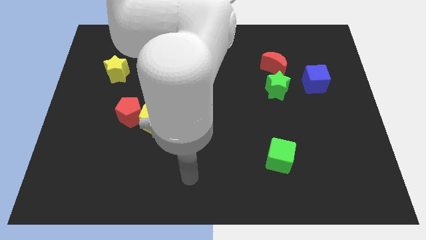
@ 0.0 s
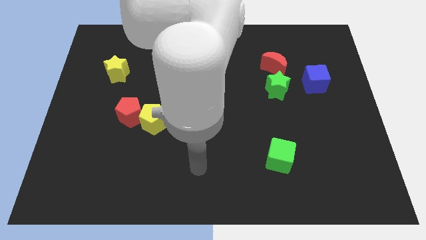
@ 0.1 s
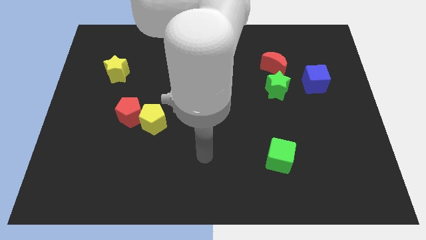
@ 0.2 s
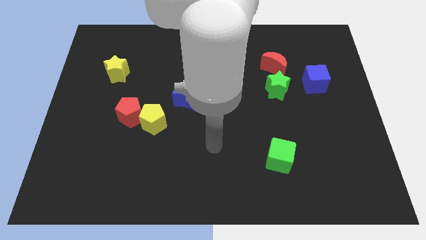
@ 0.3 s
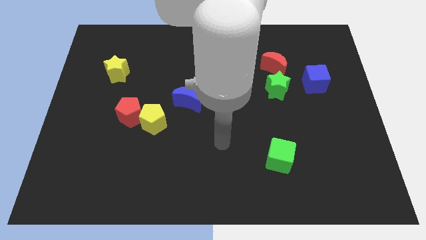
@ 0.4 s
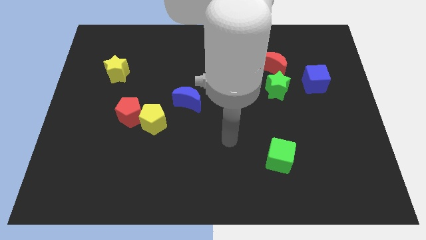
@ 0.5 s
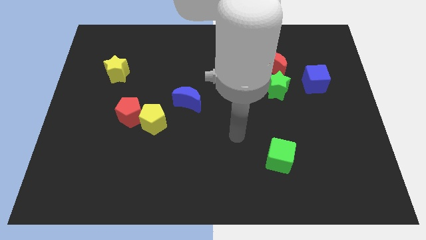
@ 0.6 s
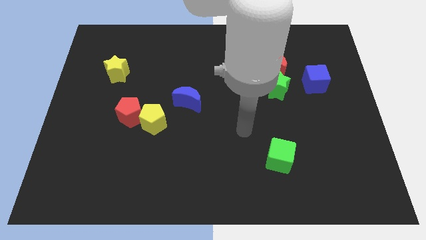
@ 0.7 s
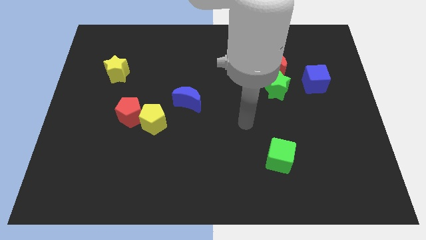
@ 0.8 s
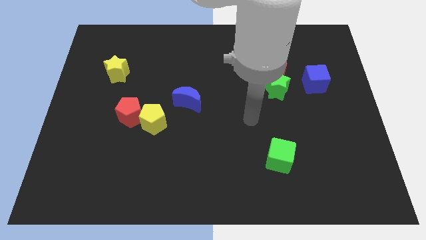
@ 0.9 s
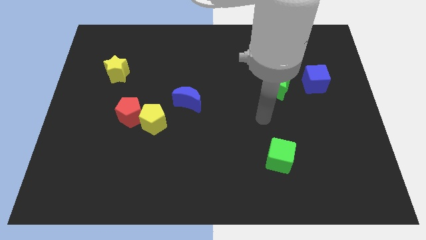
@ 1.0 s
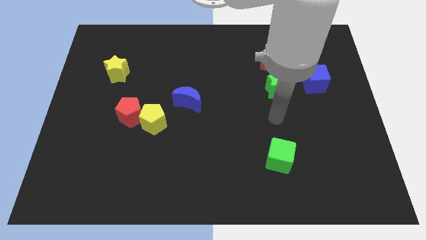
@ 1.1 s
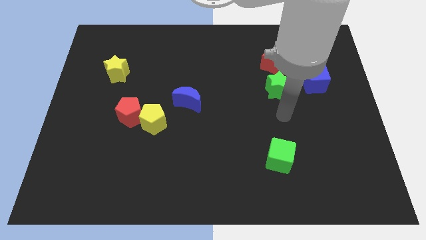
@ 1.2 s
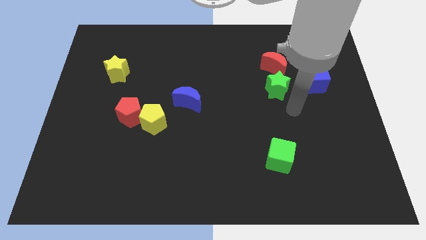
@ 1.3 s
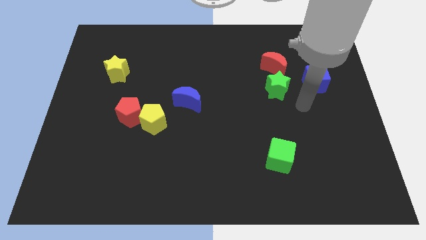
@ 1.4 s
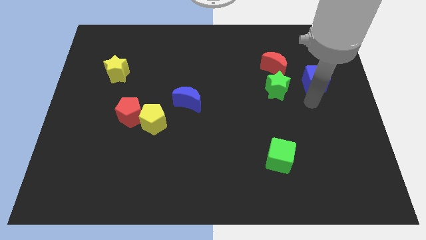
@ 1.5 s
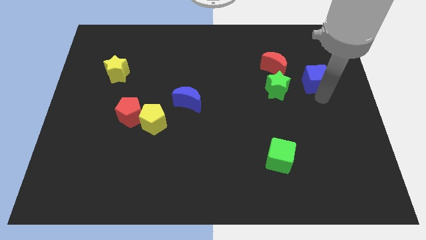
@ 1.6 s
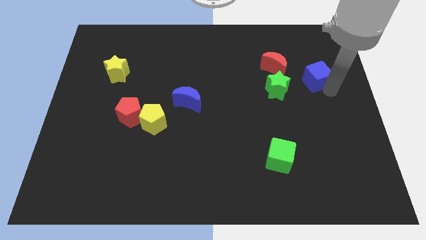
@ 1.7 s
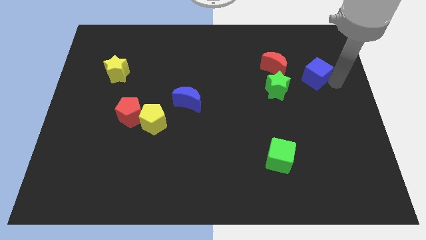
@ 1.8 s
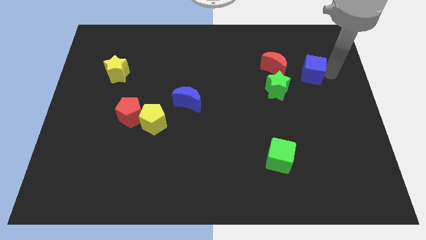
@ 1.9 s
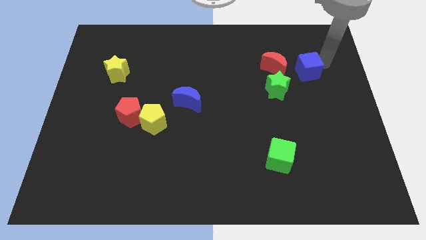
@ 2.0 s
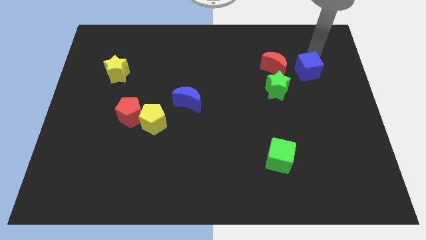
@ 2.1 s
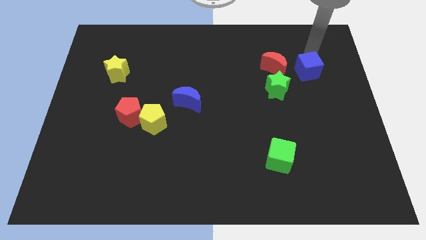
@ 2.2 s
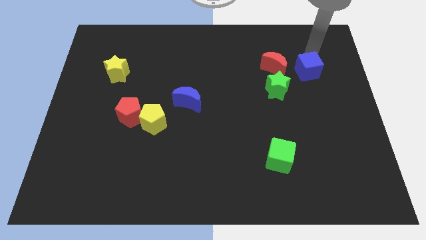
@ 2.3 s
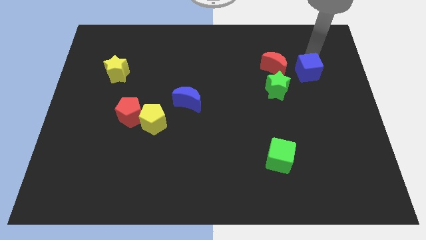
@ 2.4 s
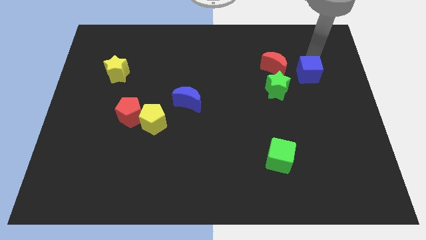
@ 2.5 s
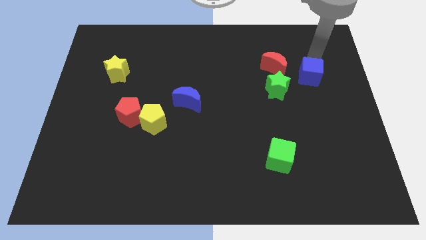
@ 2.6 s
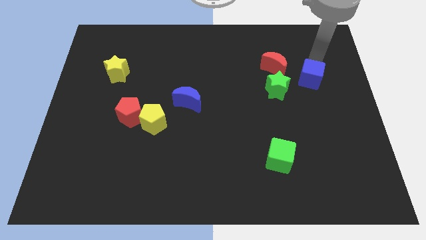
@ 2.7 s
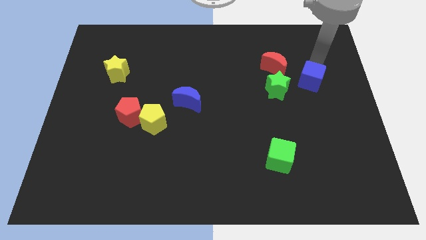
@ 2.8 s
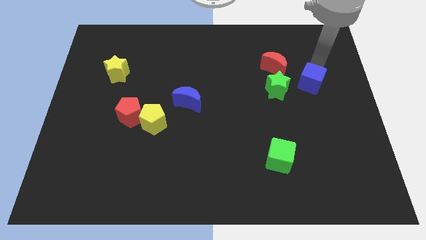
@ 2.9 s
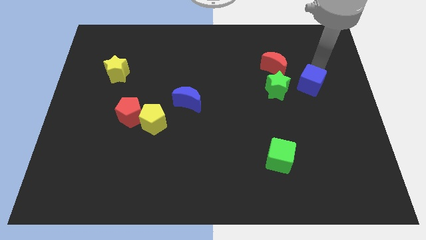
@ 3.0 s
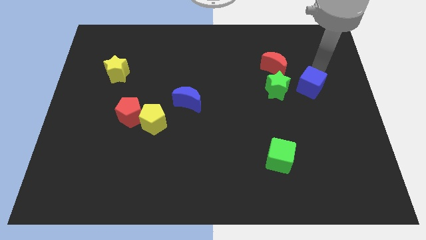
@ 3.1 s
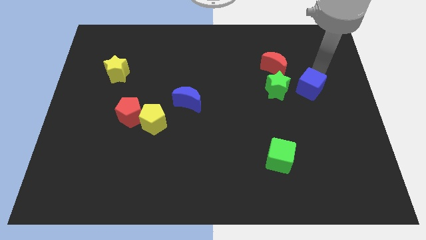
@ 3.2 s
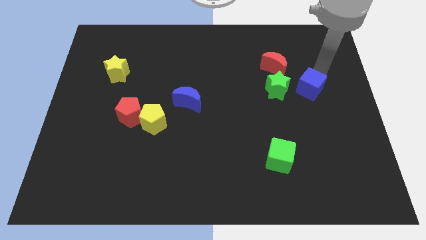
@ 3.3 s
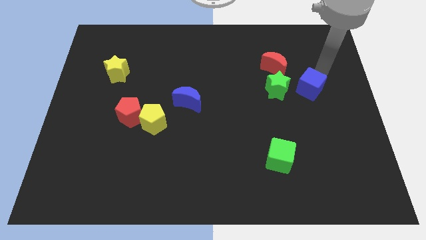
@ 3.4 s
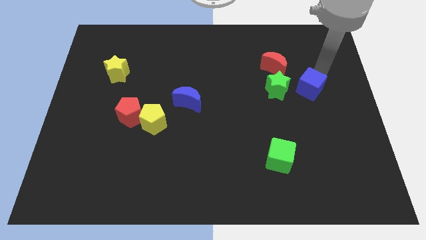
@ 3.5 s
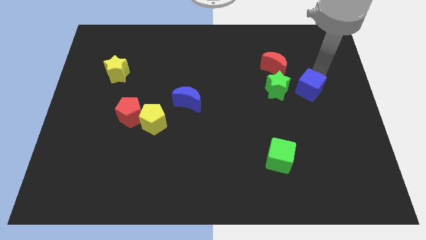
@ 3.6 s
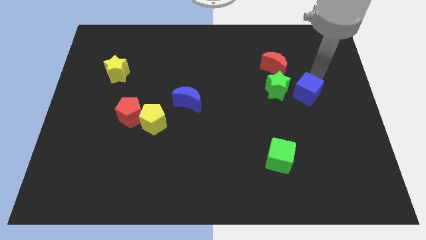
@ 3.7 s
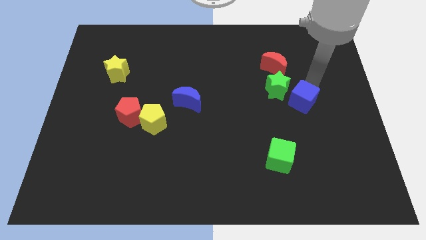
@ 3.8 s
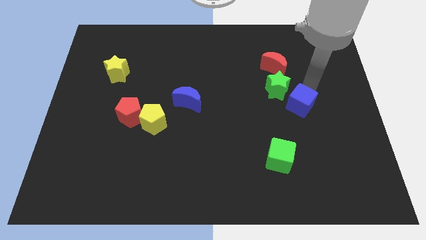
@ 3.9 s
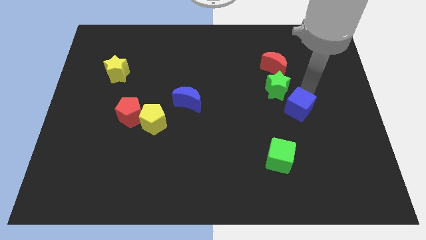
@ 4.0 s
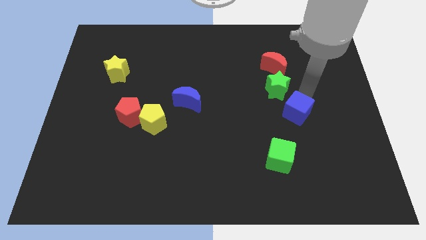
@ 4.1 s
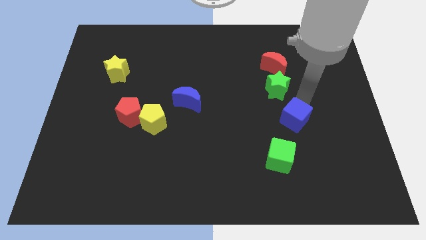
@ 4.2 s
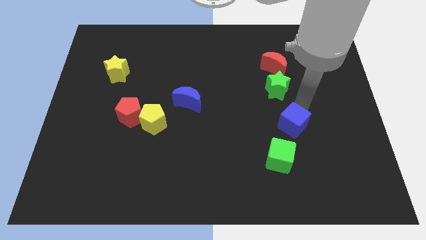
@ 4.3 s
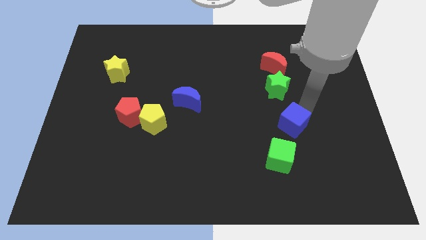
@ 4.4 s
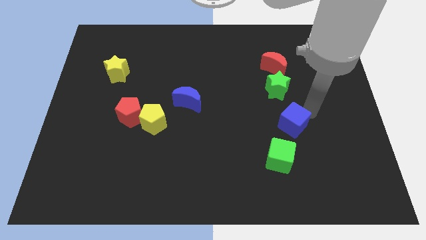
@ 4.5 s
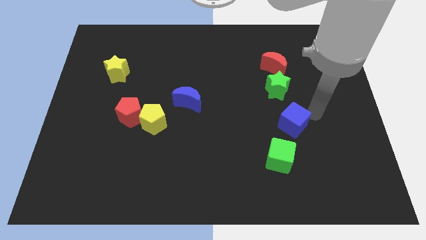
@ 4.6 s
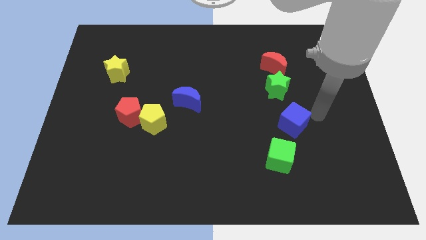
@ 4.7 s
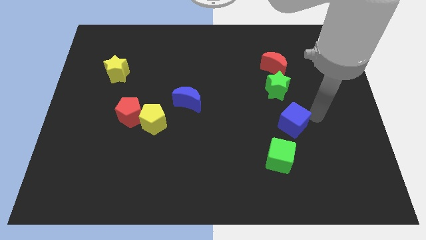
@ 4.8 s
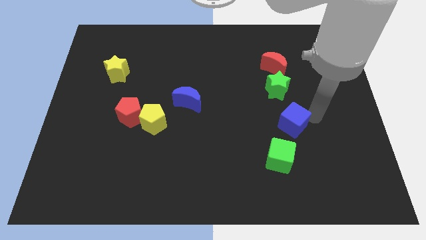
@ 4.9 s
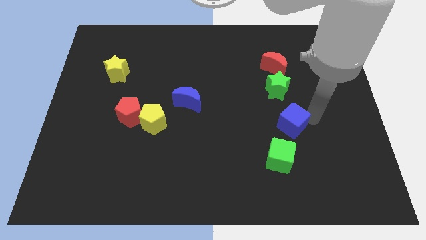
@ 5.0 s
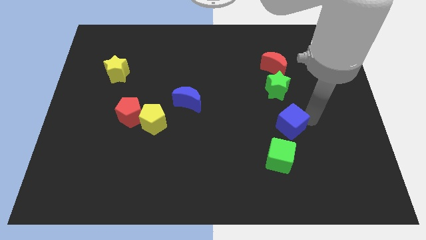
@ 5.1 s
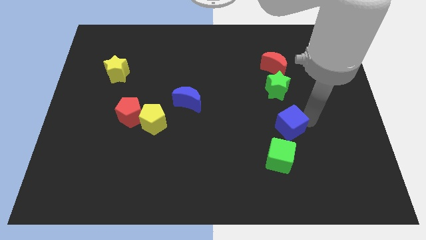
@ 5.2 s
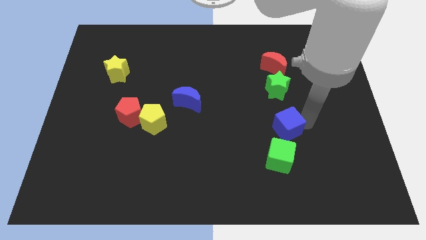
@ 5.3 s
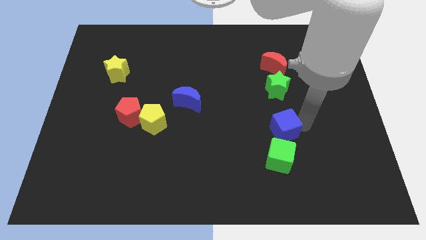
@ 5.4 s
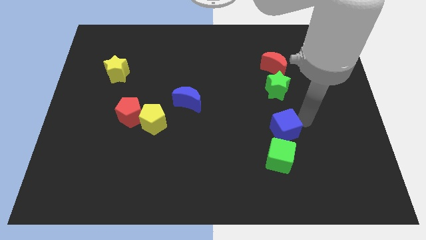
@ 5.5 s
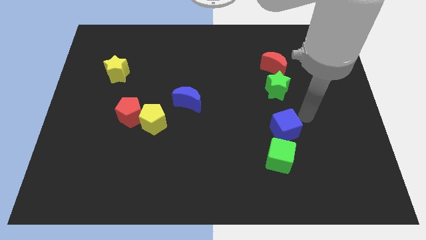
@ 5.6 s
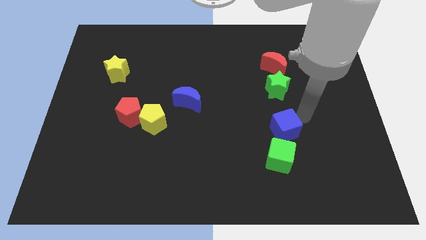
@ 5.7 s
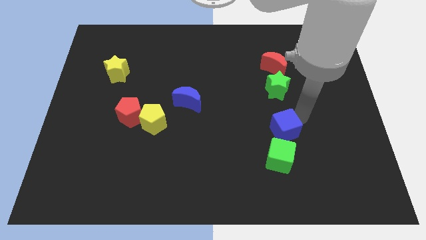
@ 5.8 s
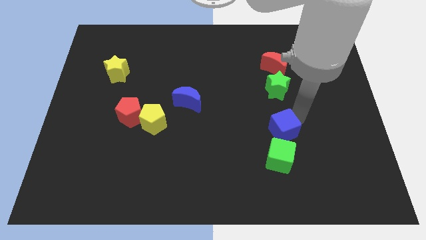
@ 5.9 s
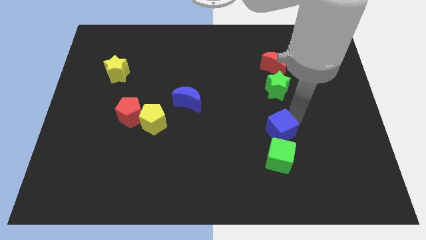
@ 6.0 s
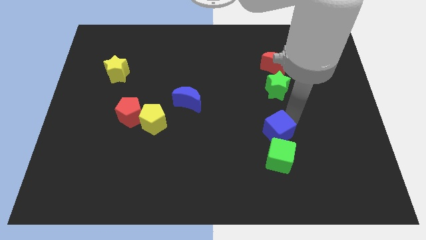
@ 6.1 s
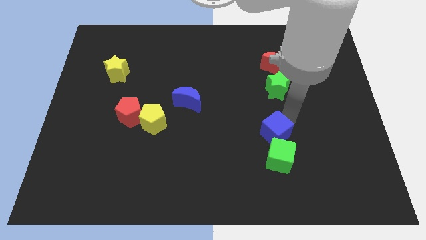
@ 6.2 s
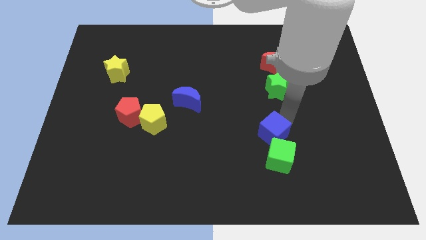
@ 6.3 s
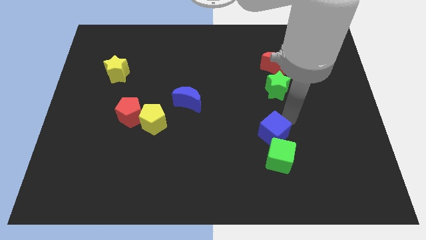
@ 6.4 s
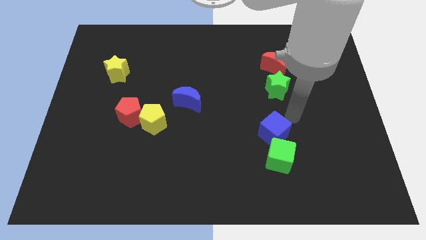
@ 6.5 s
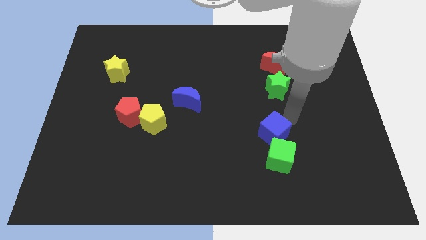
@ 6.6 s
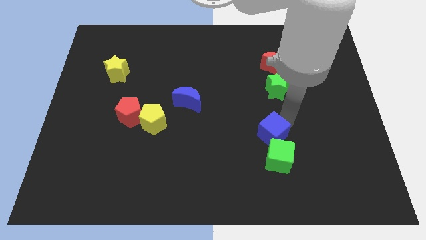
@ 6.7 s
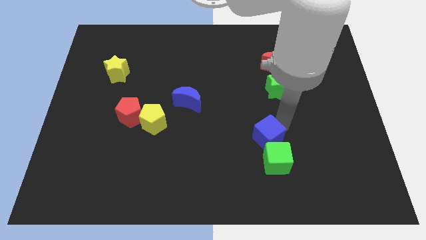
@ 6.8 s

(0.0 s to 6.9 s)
move the blue cube down and then left

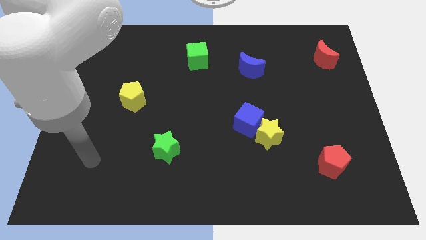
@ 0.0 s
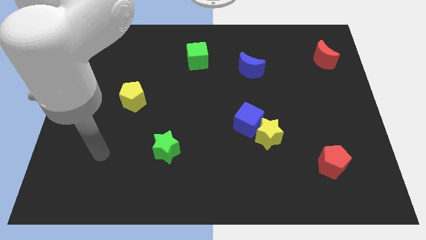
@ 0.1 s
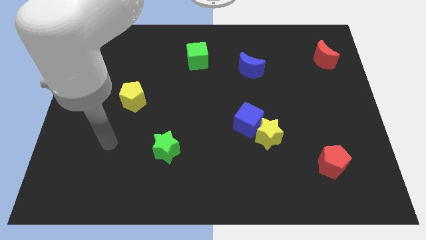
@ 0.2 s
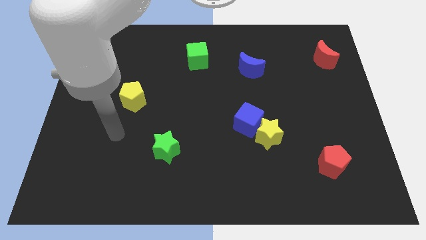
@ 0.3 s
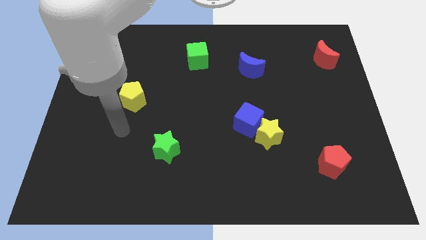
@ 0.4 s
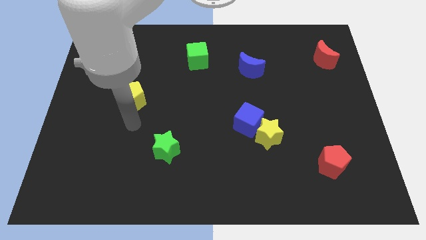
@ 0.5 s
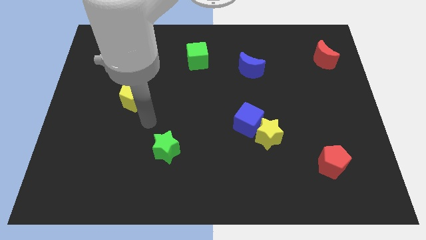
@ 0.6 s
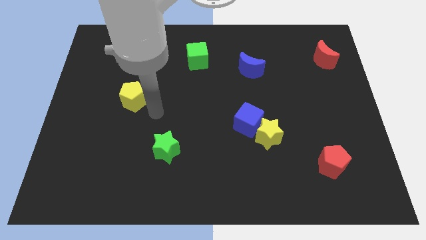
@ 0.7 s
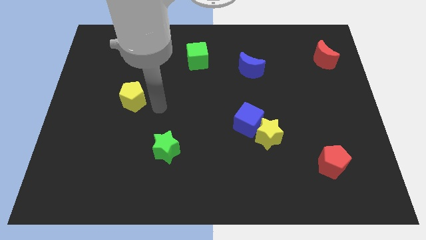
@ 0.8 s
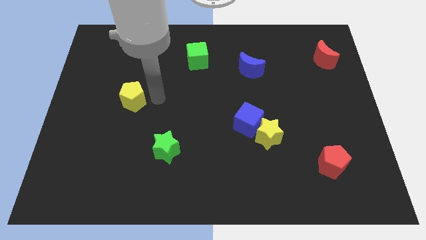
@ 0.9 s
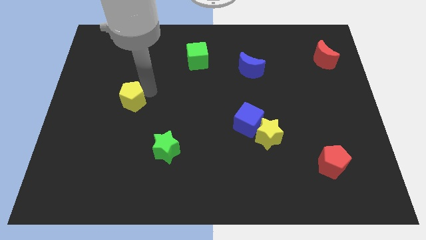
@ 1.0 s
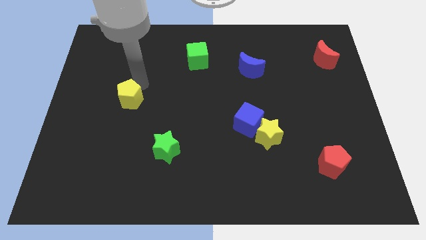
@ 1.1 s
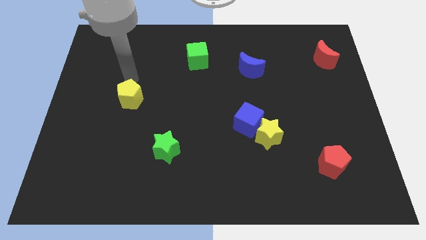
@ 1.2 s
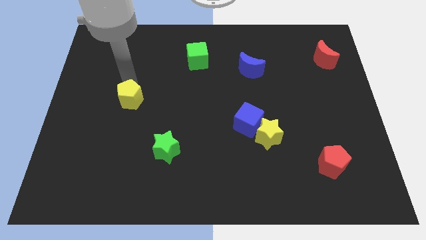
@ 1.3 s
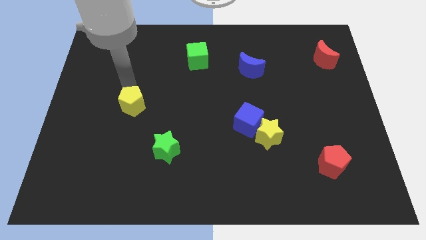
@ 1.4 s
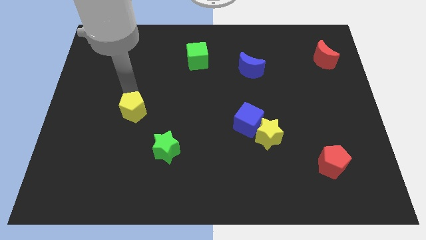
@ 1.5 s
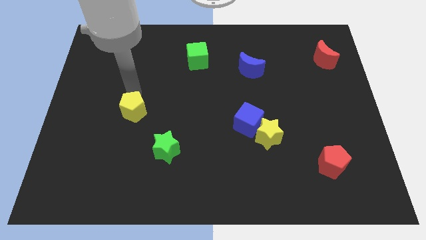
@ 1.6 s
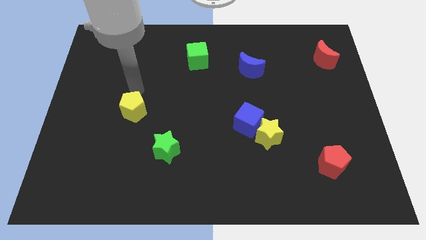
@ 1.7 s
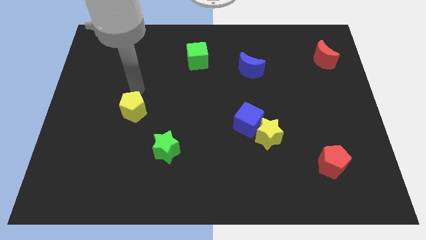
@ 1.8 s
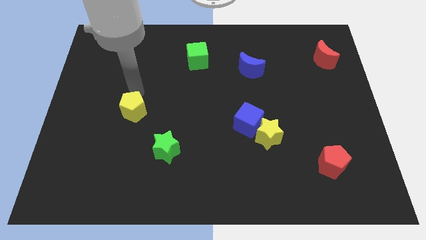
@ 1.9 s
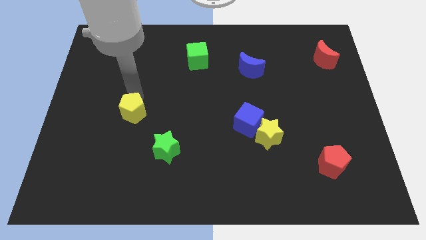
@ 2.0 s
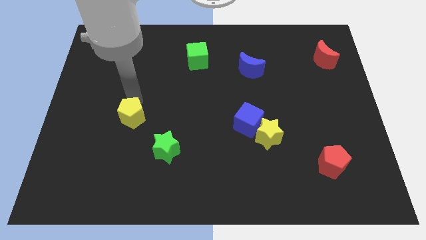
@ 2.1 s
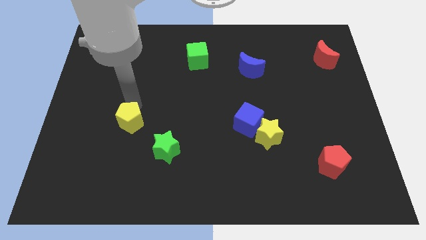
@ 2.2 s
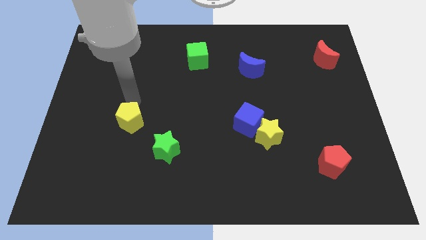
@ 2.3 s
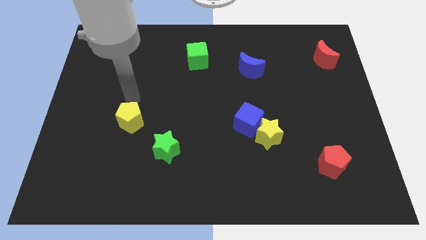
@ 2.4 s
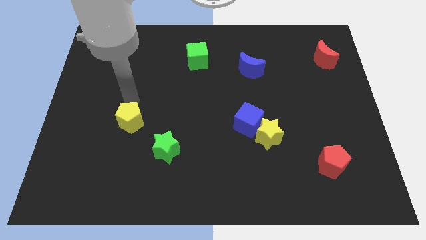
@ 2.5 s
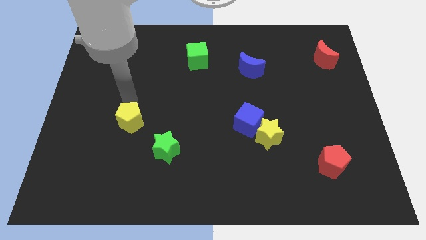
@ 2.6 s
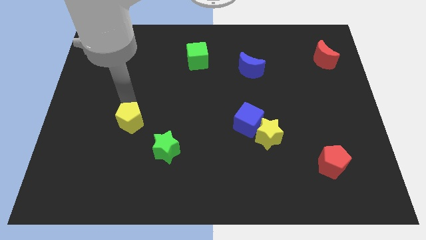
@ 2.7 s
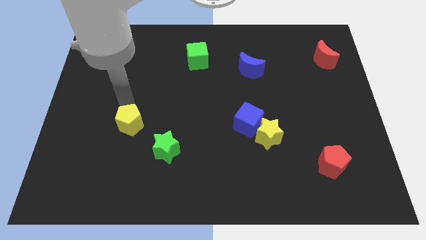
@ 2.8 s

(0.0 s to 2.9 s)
slide the yellow pentagon down somewhat
